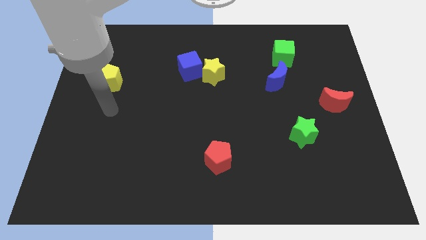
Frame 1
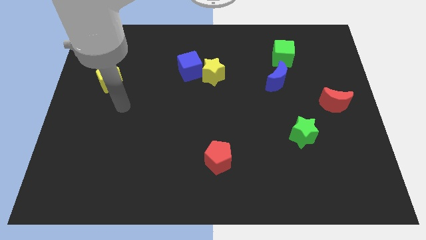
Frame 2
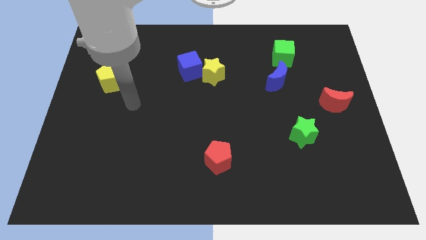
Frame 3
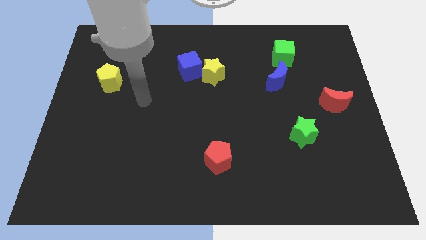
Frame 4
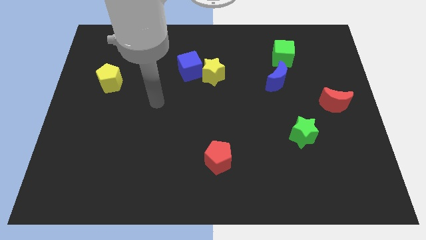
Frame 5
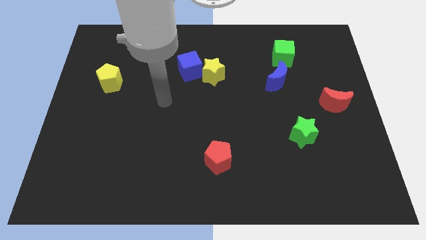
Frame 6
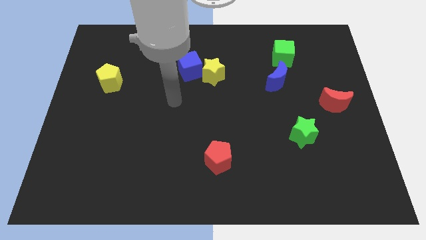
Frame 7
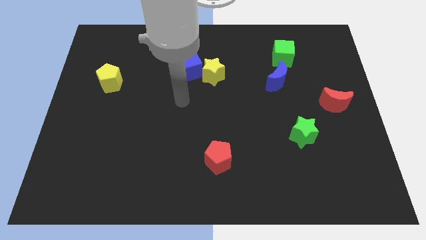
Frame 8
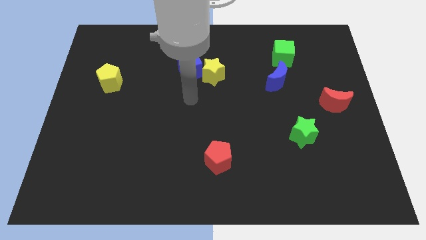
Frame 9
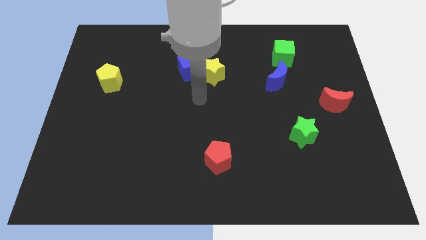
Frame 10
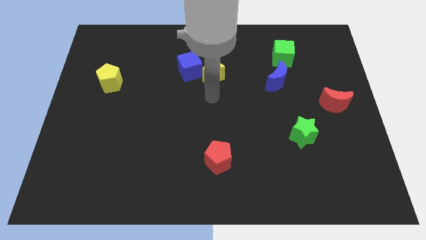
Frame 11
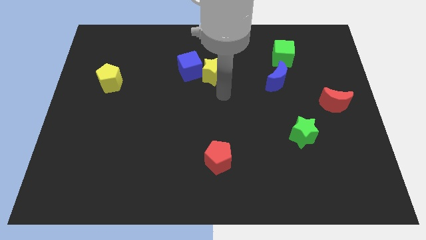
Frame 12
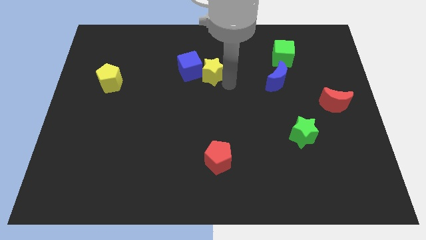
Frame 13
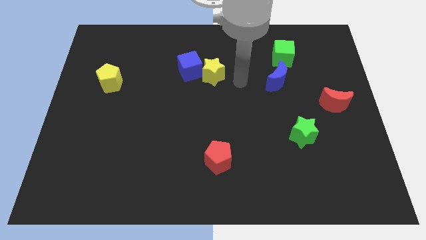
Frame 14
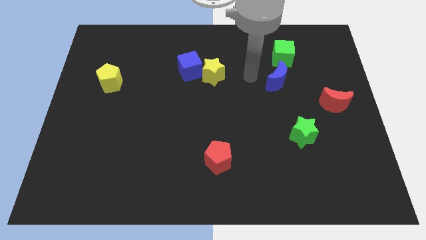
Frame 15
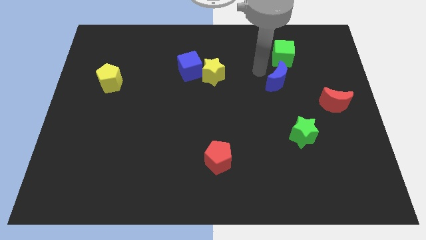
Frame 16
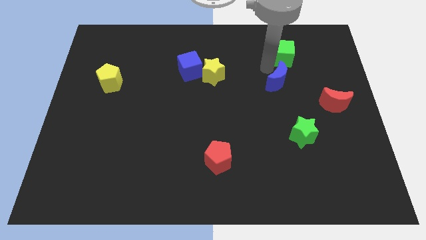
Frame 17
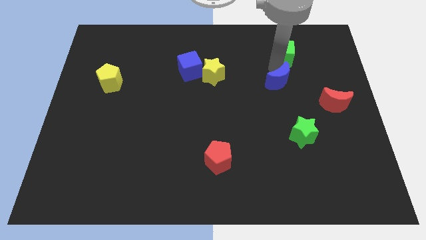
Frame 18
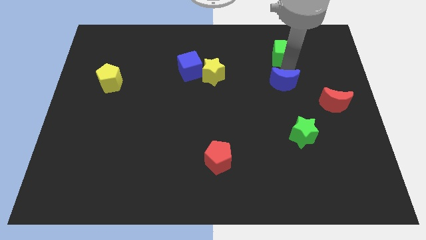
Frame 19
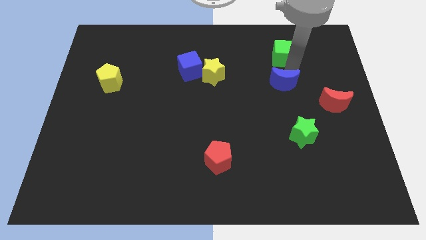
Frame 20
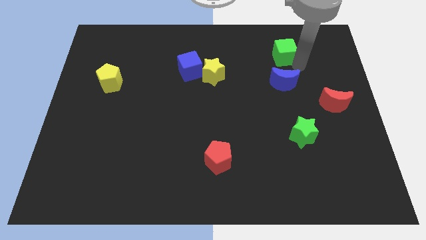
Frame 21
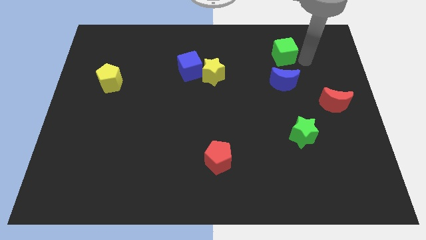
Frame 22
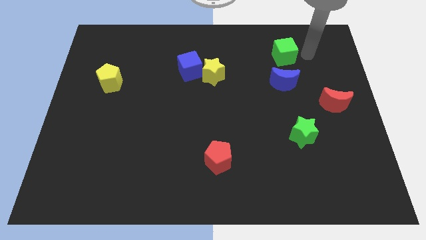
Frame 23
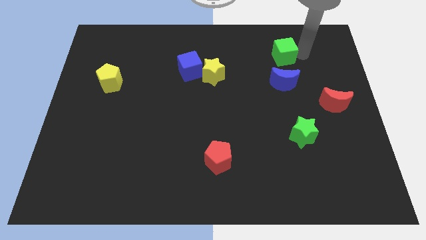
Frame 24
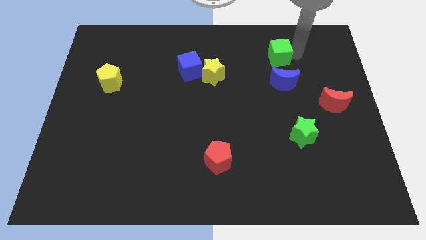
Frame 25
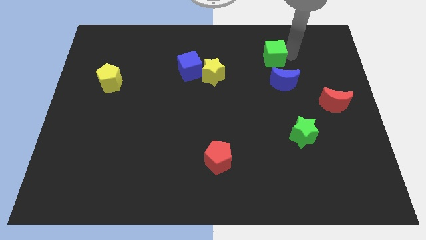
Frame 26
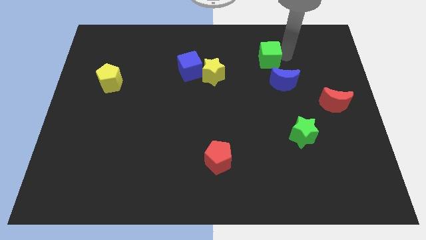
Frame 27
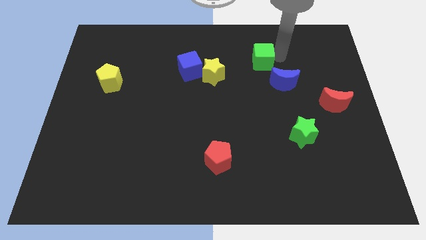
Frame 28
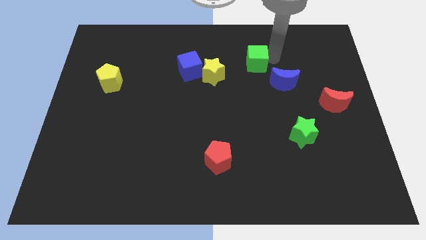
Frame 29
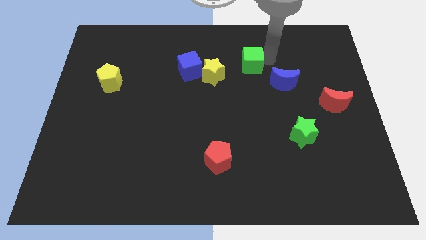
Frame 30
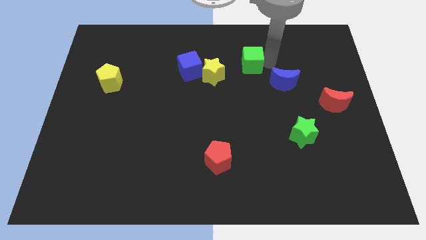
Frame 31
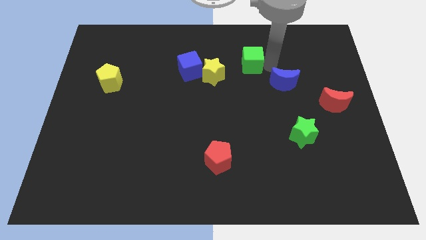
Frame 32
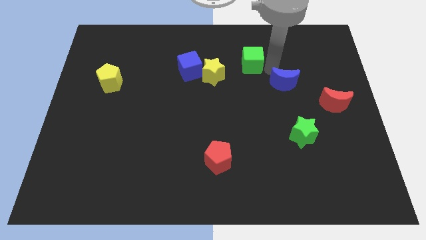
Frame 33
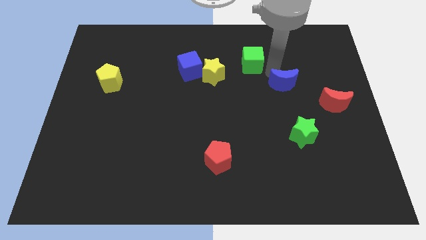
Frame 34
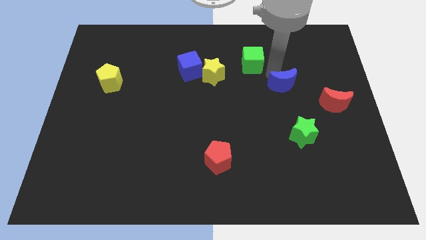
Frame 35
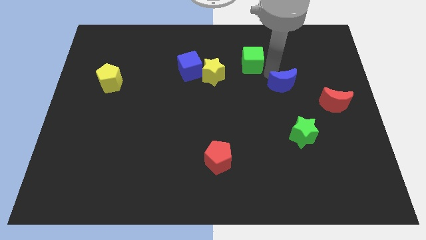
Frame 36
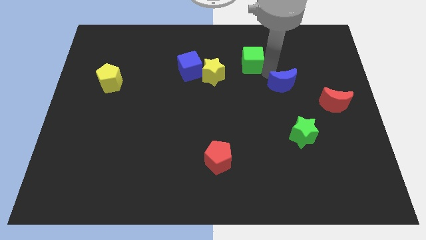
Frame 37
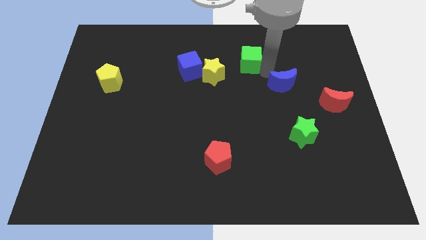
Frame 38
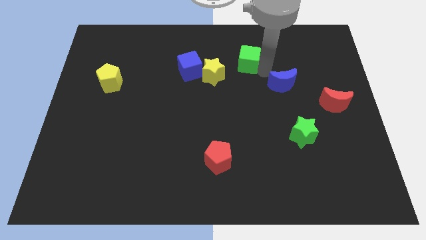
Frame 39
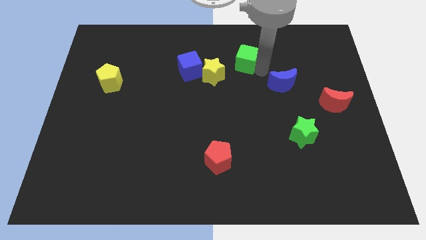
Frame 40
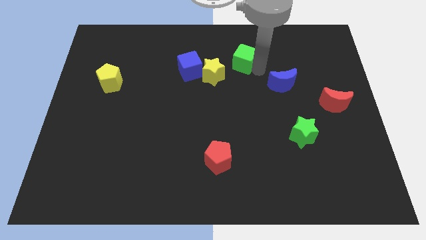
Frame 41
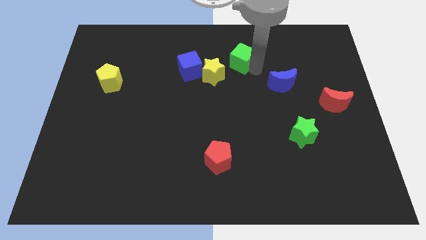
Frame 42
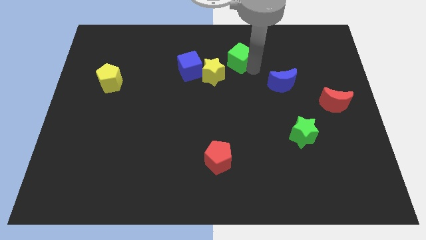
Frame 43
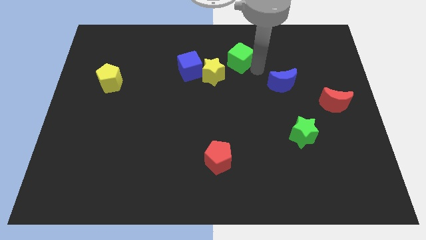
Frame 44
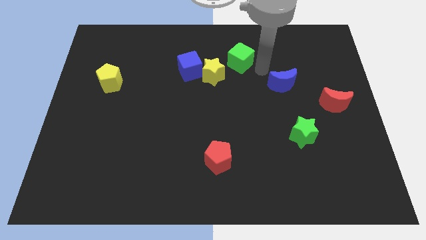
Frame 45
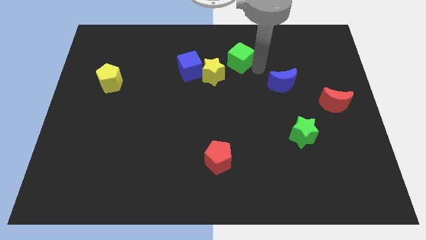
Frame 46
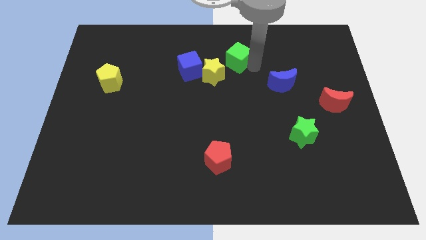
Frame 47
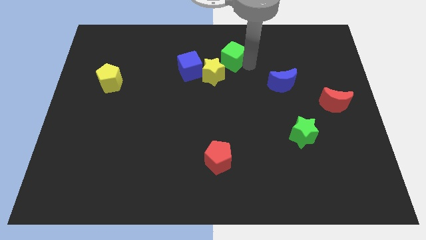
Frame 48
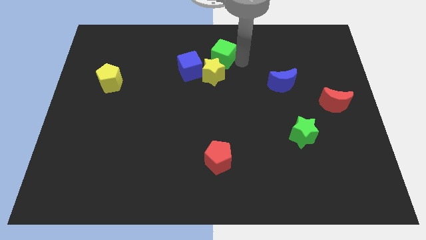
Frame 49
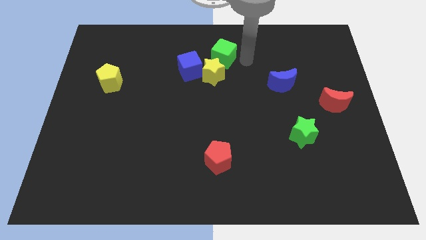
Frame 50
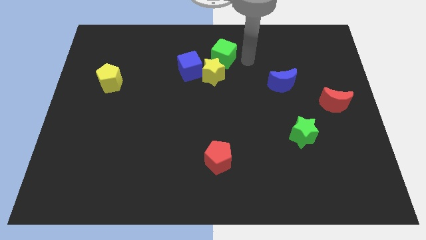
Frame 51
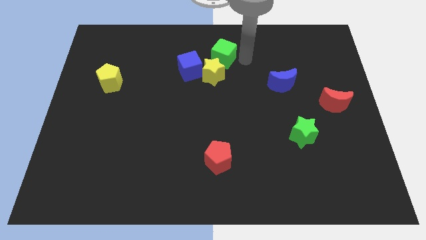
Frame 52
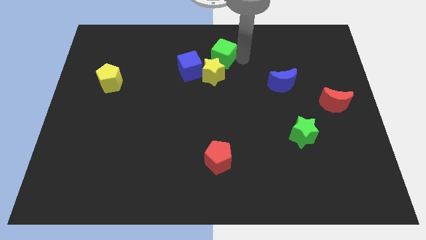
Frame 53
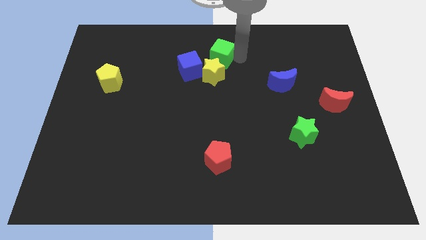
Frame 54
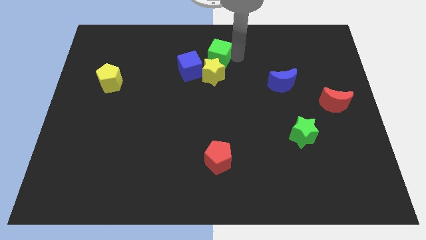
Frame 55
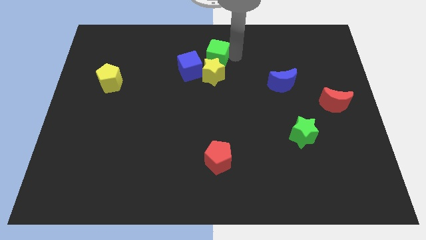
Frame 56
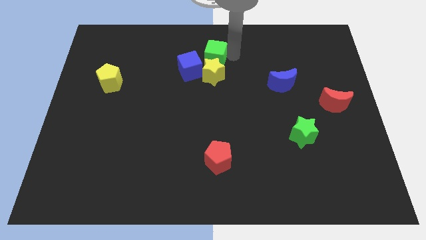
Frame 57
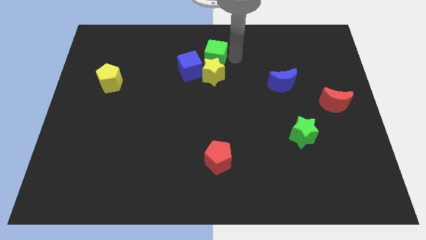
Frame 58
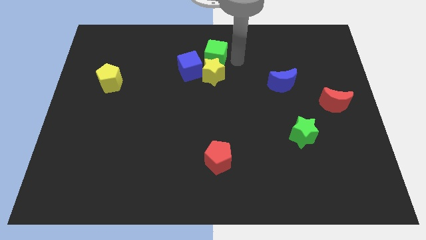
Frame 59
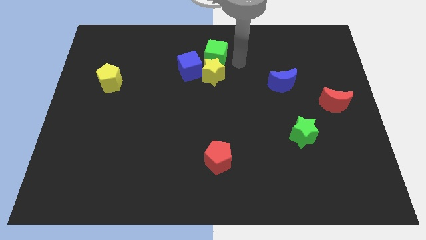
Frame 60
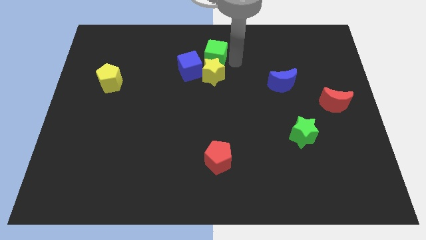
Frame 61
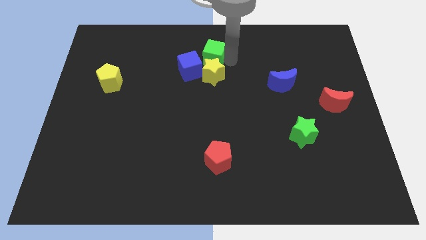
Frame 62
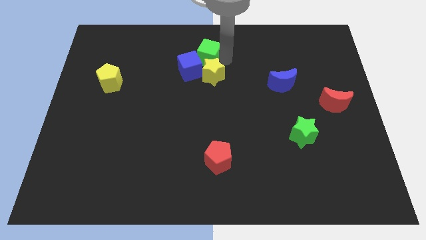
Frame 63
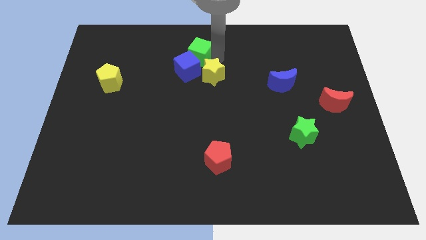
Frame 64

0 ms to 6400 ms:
move the green cube to the left

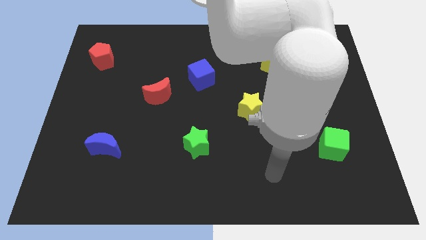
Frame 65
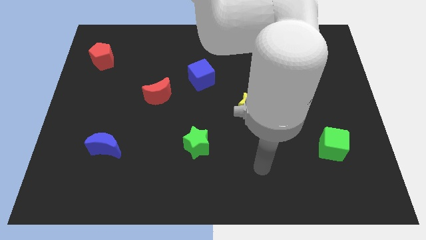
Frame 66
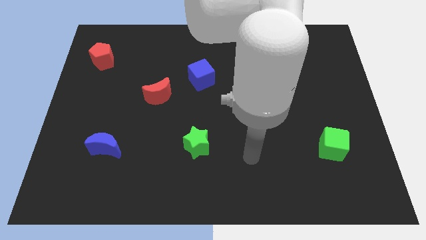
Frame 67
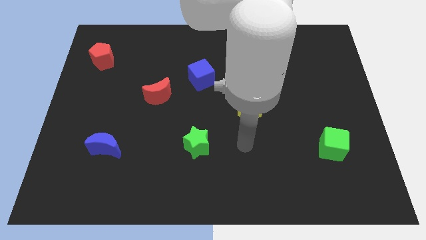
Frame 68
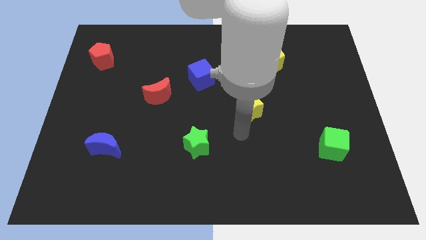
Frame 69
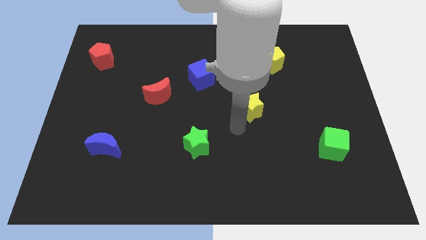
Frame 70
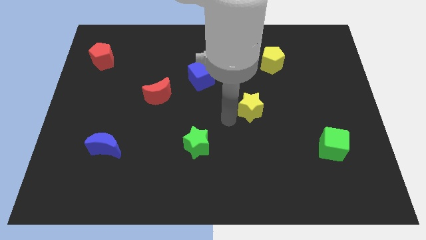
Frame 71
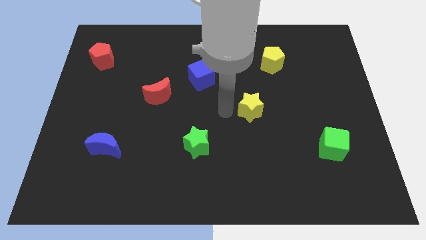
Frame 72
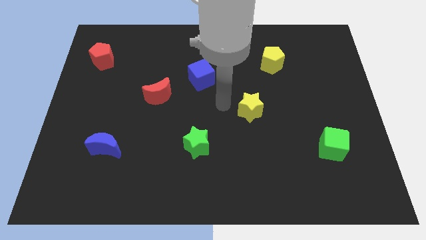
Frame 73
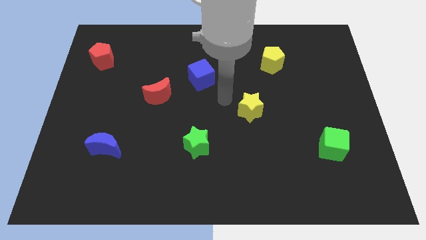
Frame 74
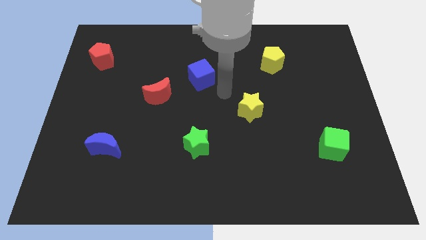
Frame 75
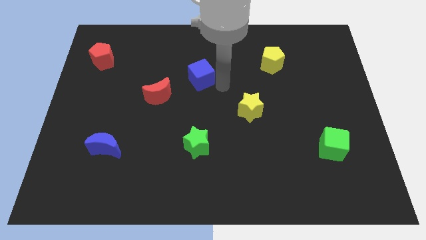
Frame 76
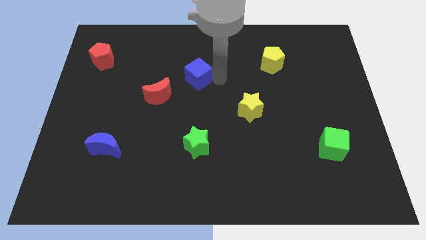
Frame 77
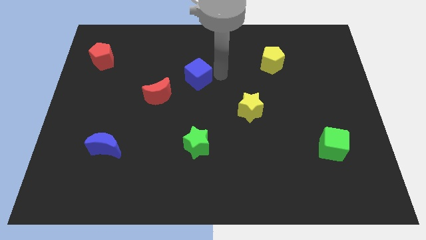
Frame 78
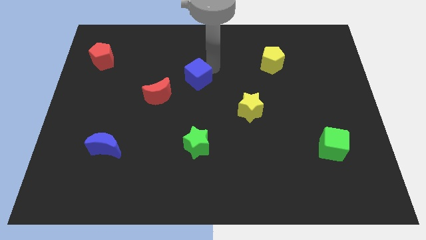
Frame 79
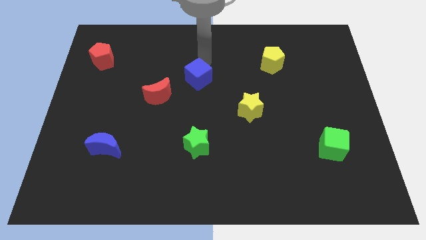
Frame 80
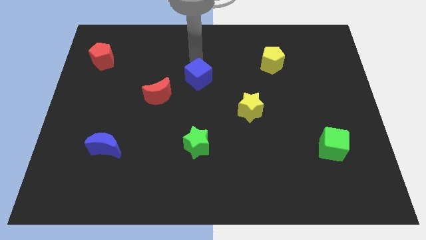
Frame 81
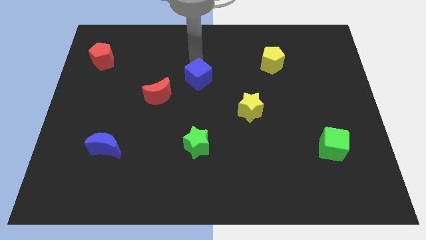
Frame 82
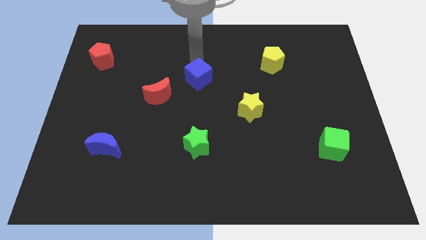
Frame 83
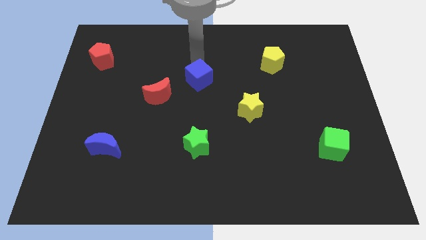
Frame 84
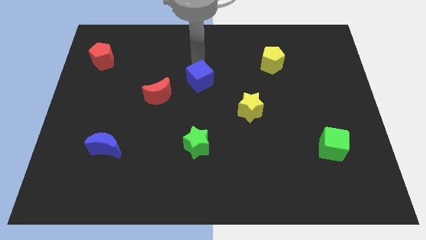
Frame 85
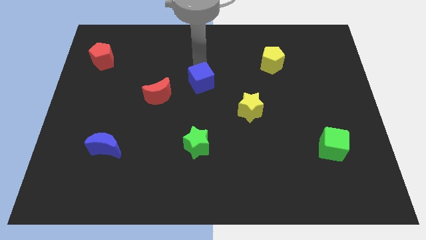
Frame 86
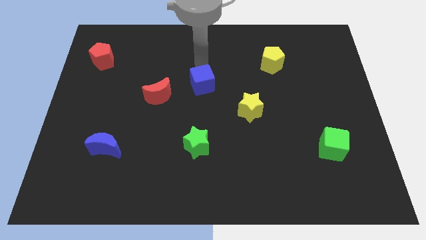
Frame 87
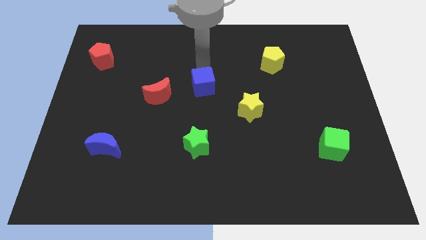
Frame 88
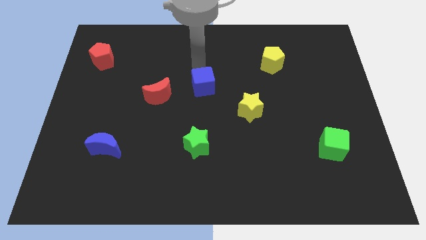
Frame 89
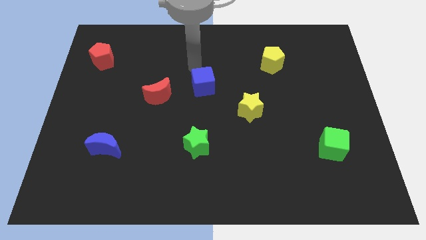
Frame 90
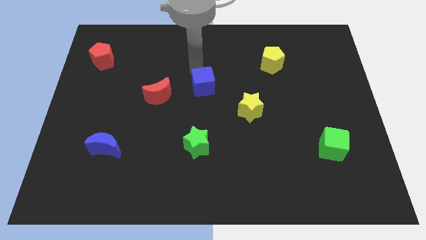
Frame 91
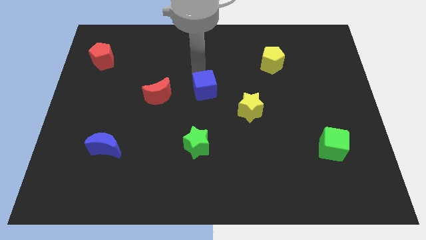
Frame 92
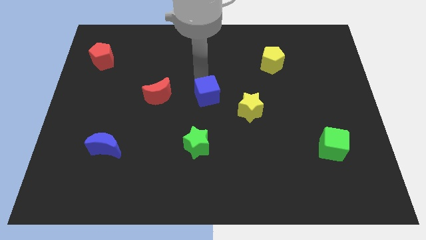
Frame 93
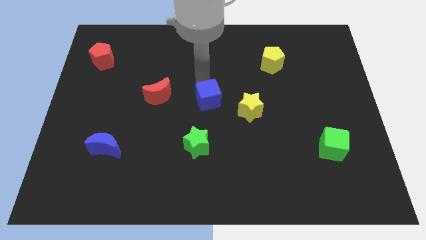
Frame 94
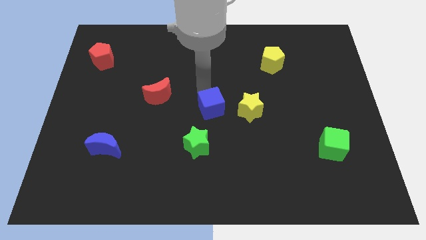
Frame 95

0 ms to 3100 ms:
slightly push the blue cube downwards and then to the right
